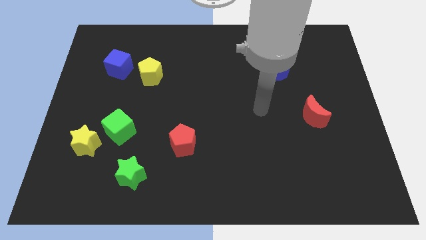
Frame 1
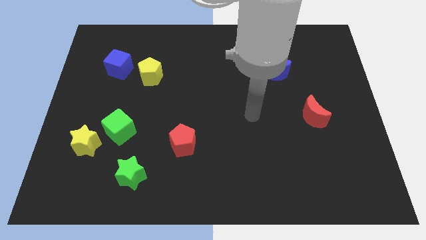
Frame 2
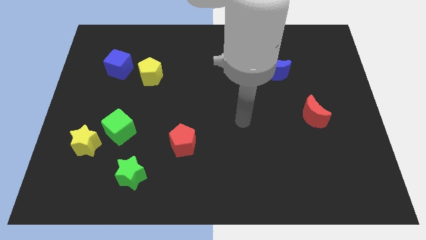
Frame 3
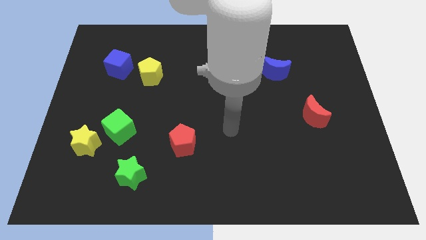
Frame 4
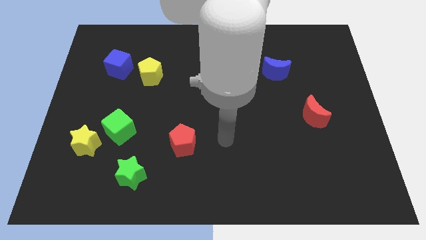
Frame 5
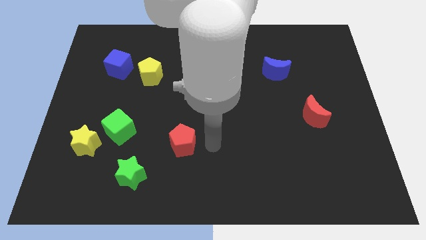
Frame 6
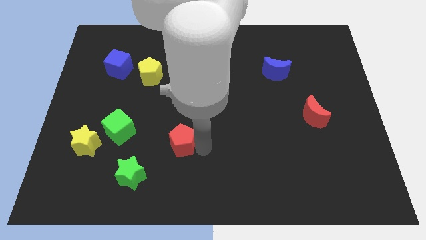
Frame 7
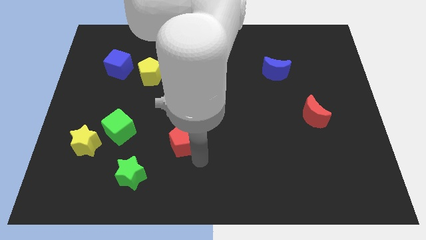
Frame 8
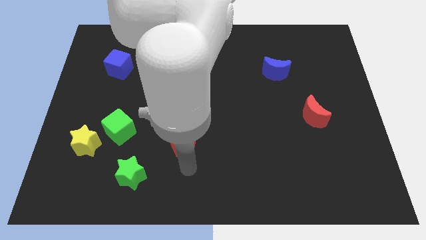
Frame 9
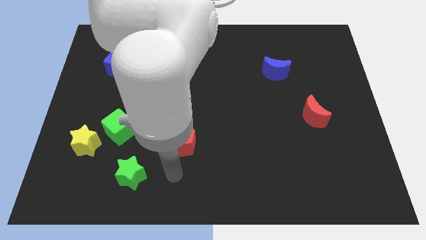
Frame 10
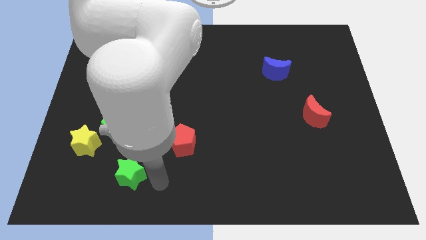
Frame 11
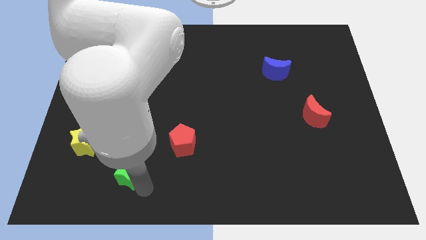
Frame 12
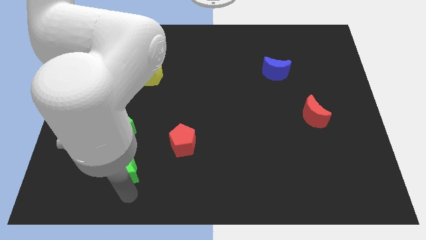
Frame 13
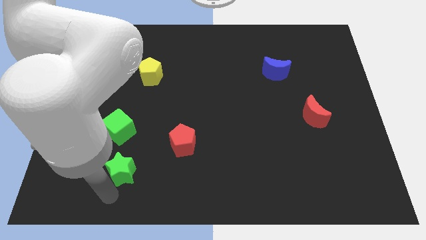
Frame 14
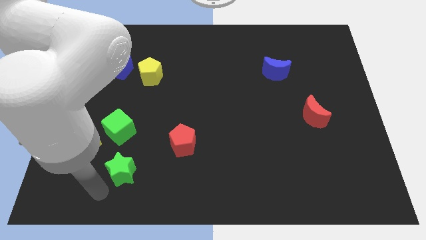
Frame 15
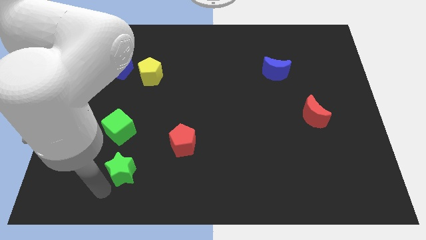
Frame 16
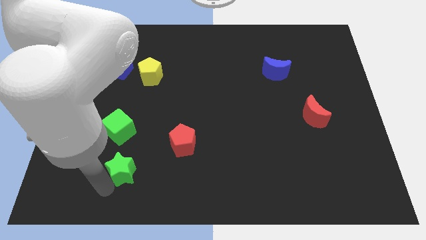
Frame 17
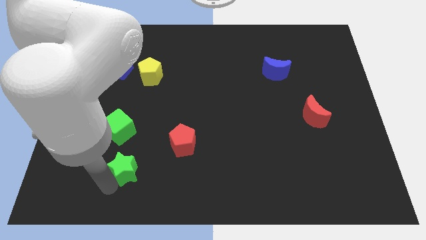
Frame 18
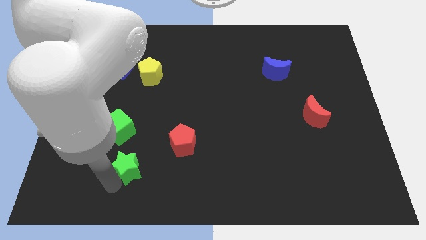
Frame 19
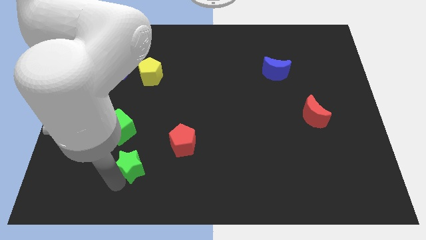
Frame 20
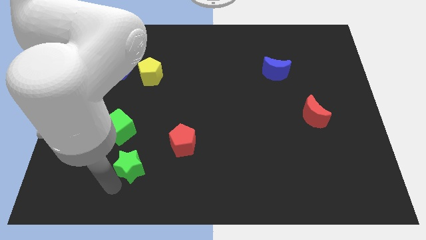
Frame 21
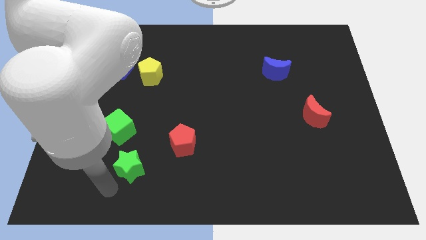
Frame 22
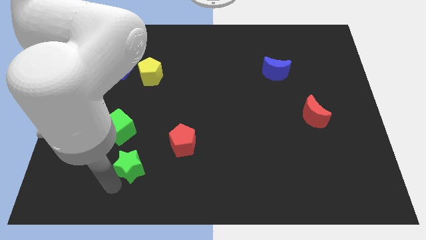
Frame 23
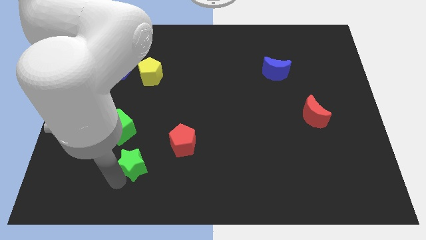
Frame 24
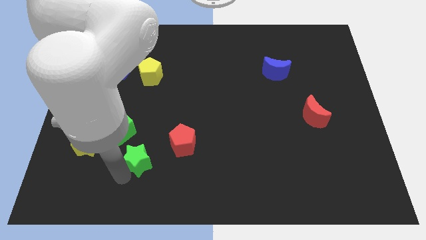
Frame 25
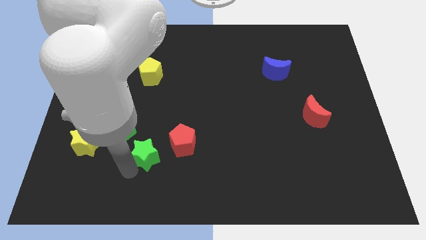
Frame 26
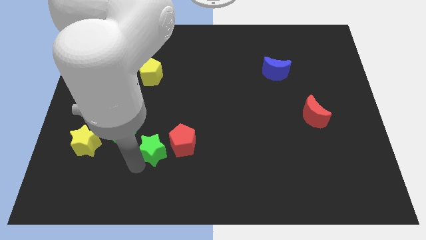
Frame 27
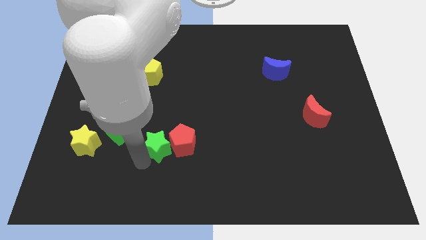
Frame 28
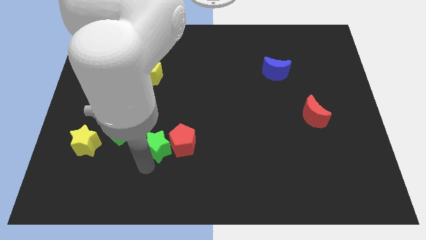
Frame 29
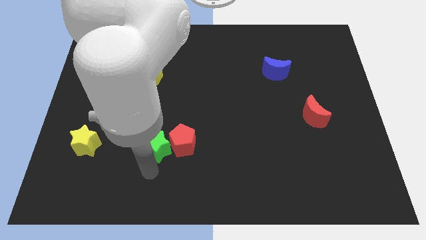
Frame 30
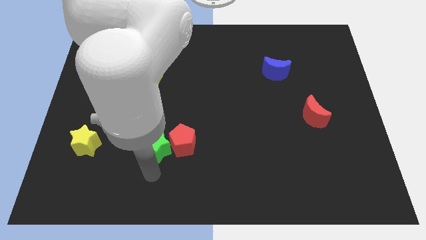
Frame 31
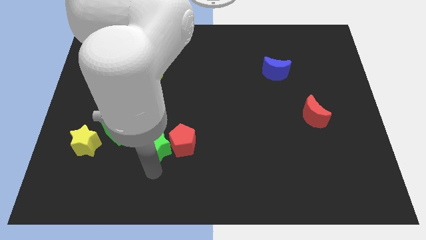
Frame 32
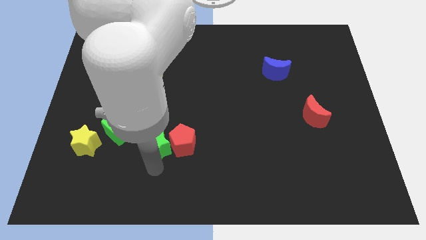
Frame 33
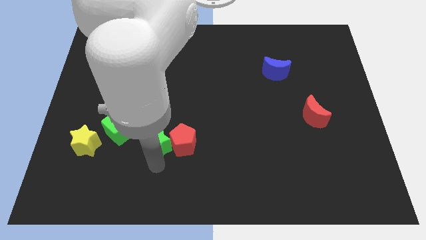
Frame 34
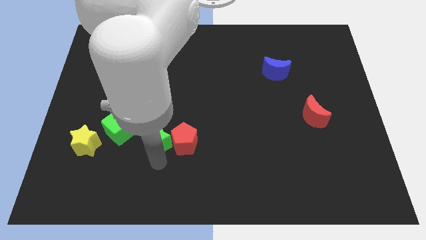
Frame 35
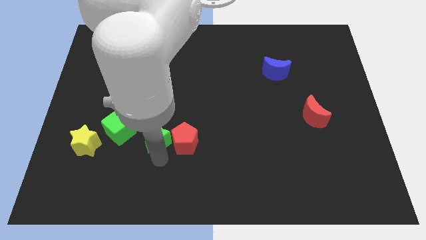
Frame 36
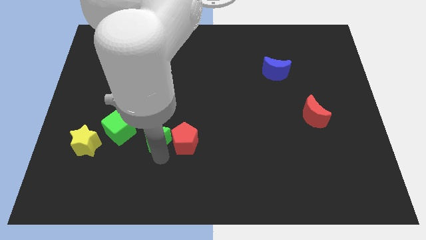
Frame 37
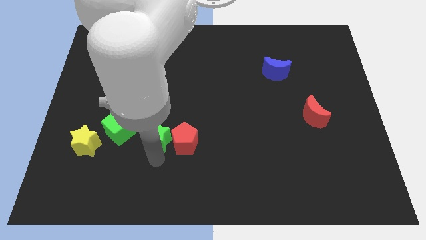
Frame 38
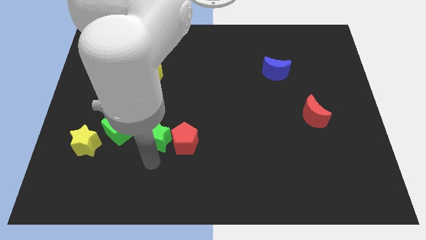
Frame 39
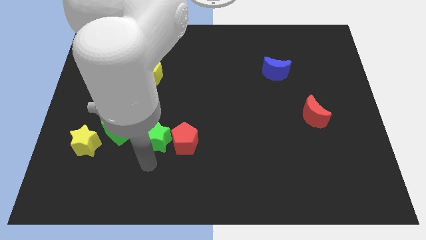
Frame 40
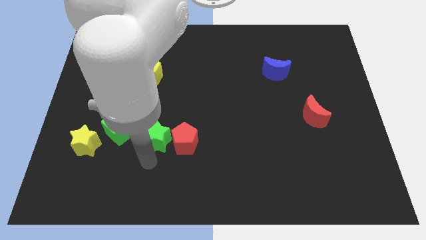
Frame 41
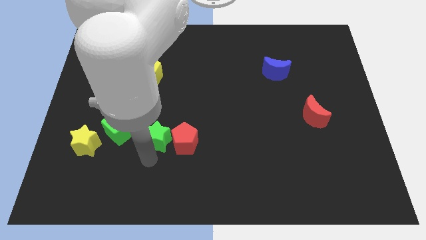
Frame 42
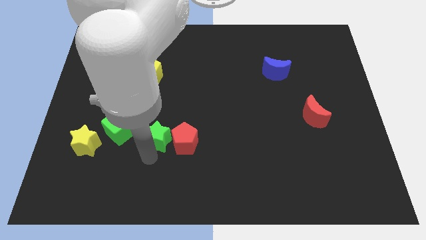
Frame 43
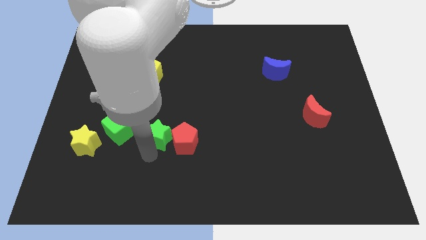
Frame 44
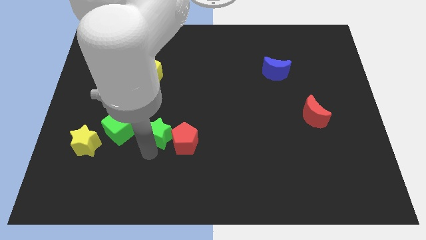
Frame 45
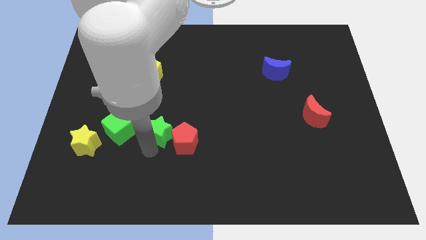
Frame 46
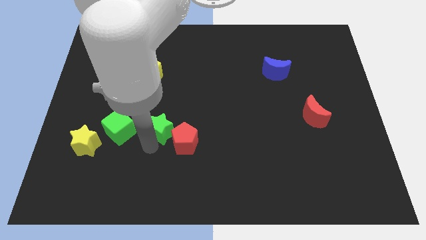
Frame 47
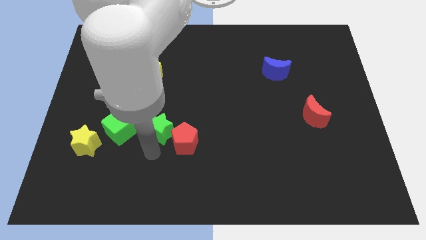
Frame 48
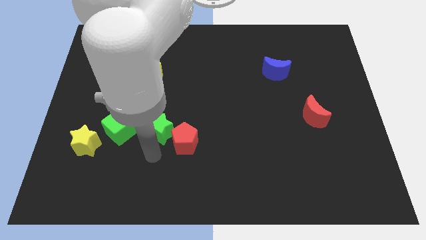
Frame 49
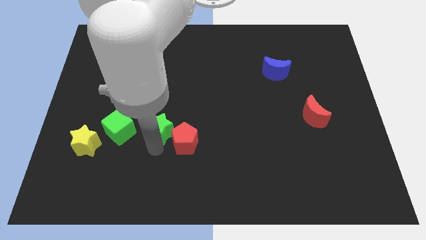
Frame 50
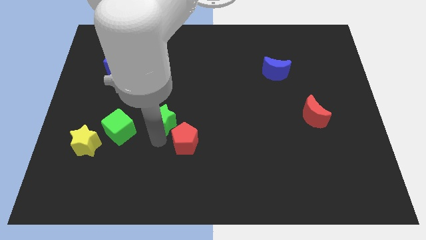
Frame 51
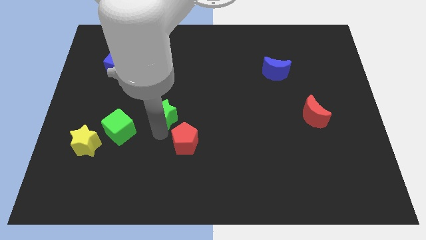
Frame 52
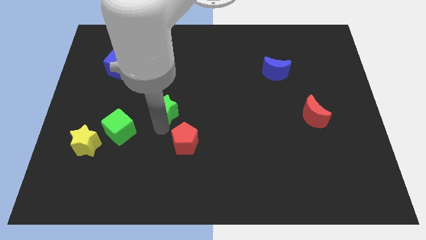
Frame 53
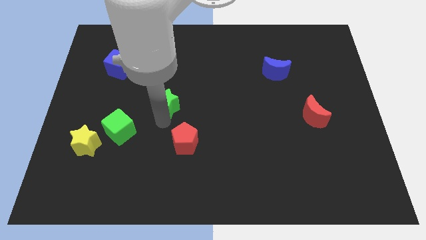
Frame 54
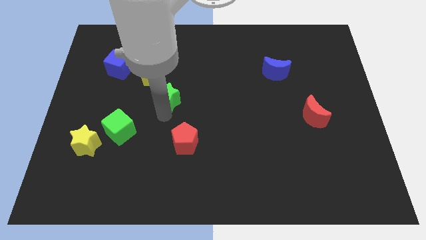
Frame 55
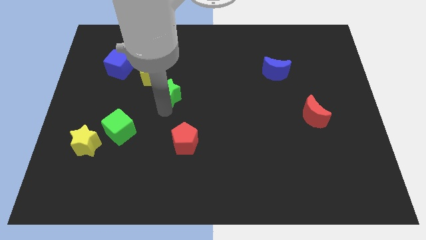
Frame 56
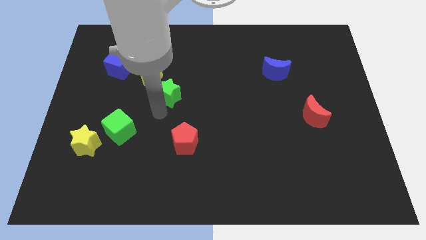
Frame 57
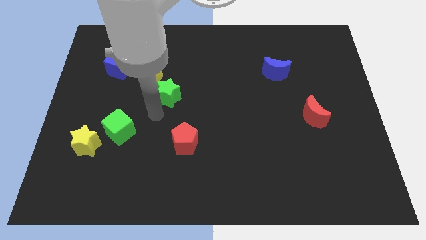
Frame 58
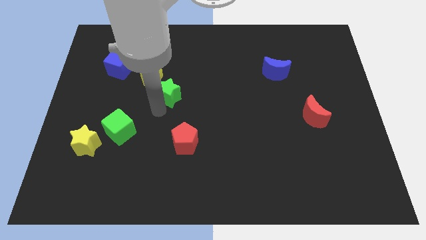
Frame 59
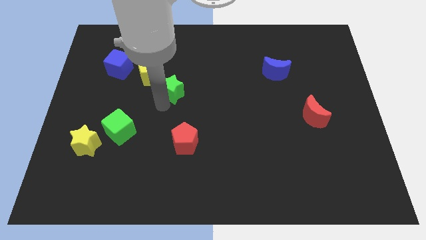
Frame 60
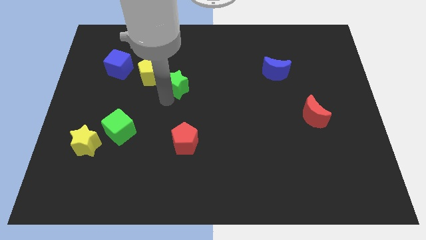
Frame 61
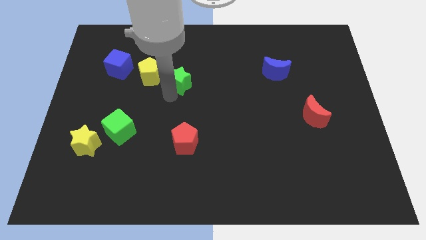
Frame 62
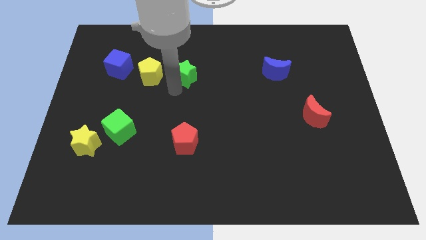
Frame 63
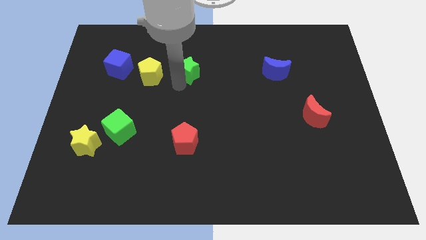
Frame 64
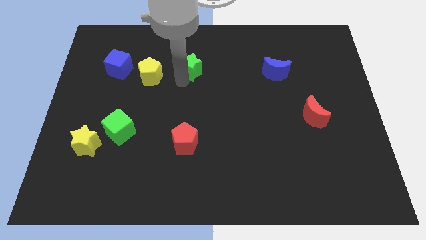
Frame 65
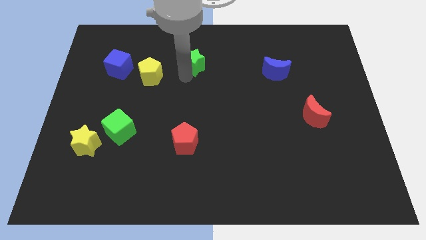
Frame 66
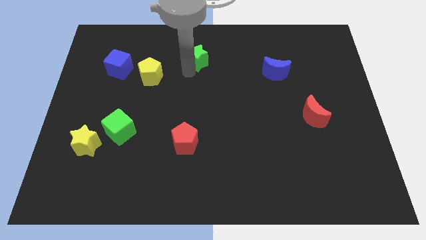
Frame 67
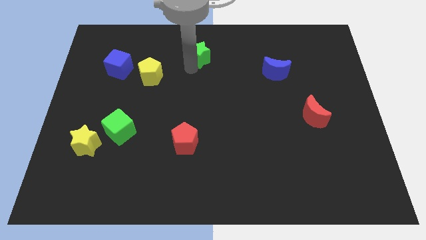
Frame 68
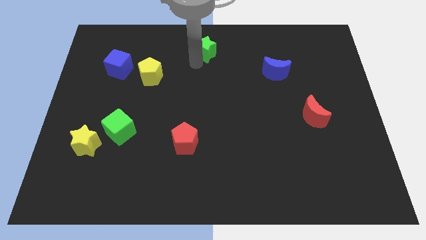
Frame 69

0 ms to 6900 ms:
move the green star to the towards your base
